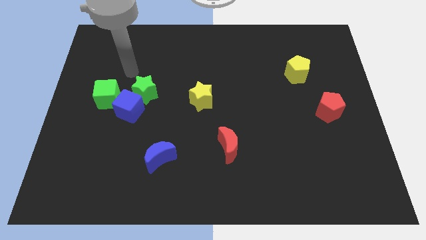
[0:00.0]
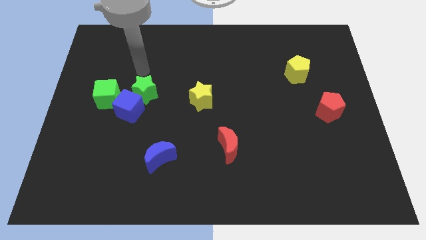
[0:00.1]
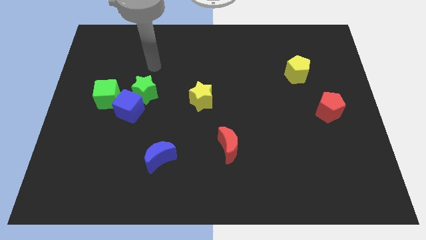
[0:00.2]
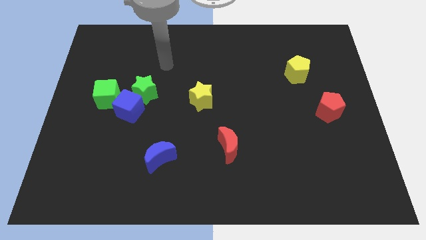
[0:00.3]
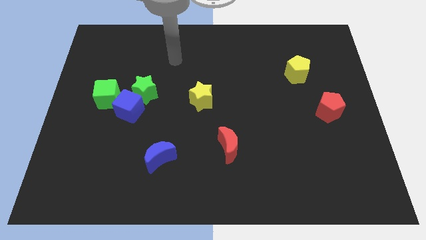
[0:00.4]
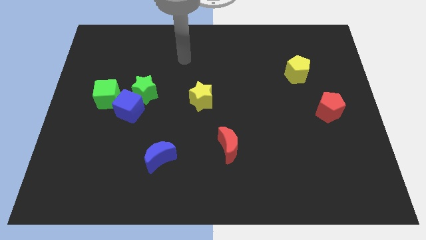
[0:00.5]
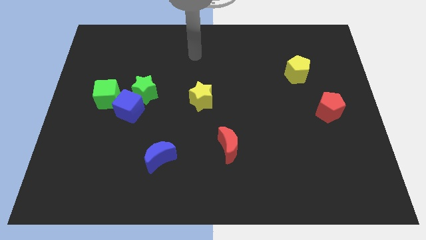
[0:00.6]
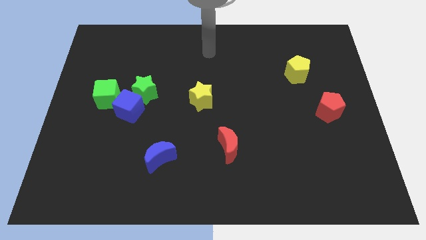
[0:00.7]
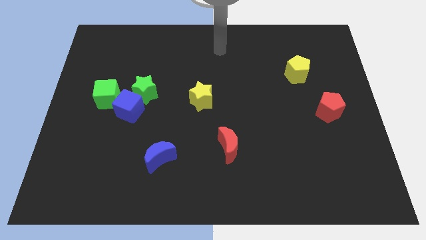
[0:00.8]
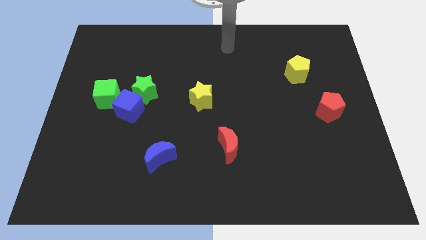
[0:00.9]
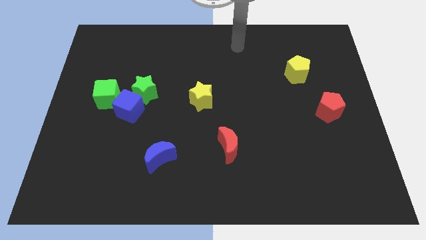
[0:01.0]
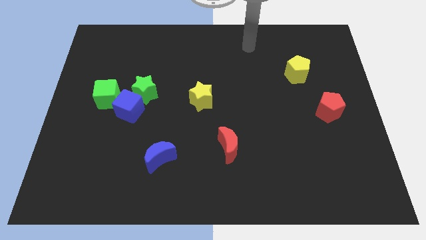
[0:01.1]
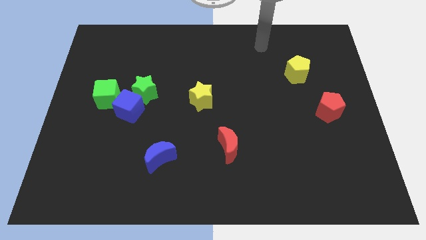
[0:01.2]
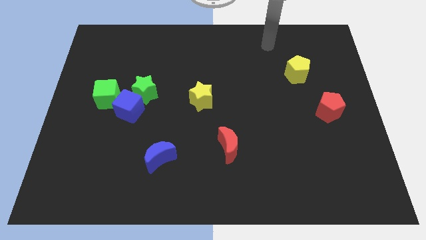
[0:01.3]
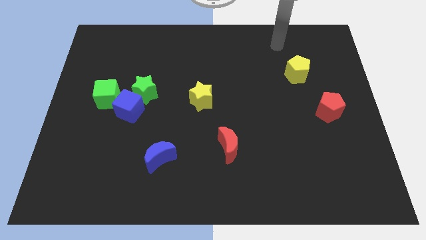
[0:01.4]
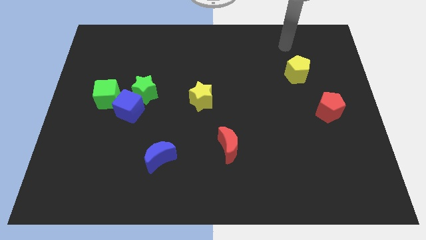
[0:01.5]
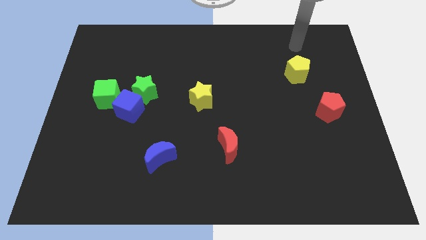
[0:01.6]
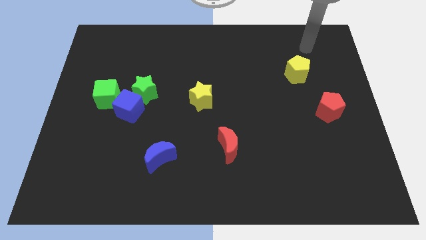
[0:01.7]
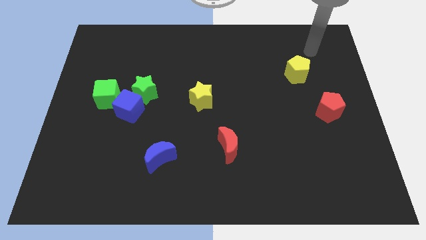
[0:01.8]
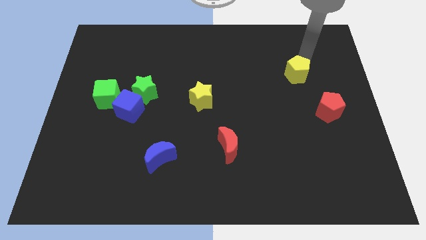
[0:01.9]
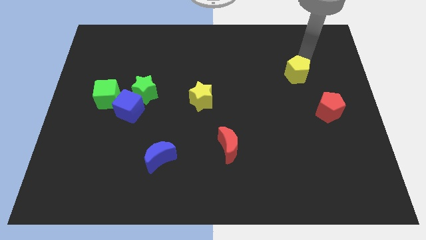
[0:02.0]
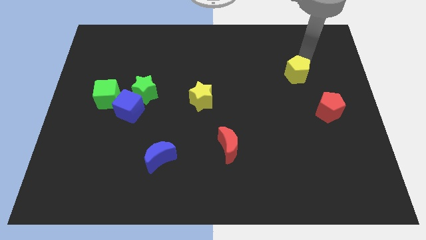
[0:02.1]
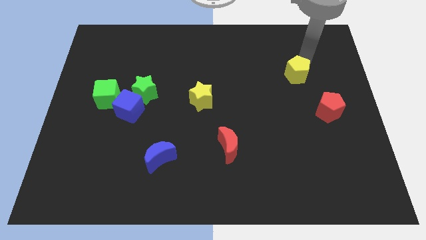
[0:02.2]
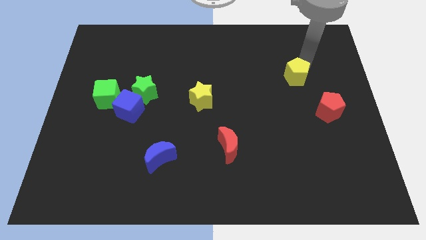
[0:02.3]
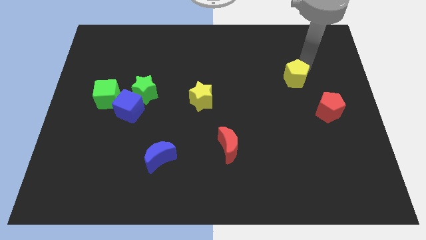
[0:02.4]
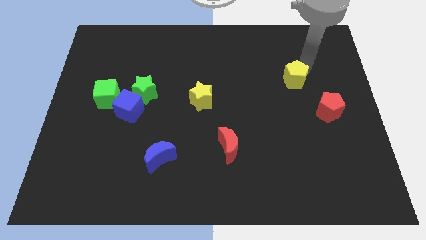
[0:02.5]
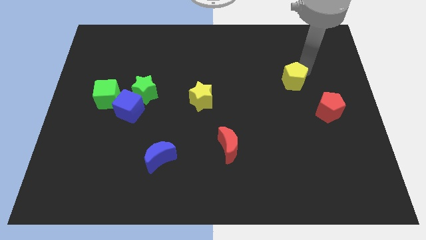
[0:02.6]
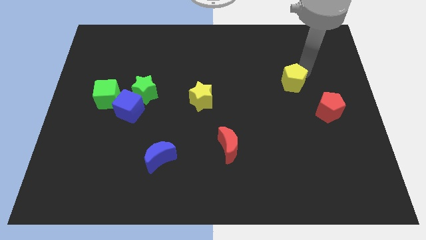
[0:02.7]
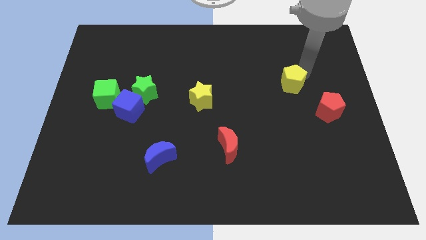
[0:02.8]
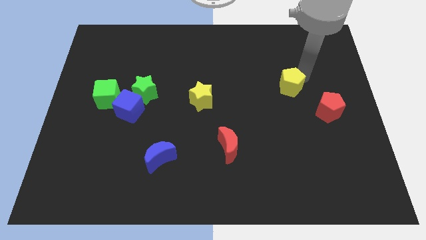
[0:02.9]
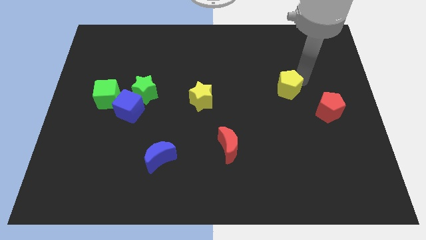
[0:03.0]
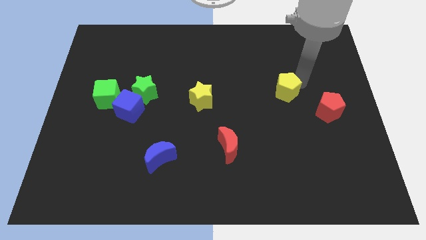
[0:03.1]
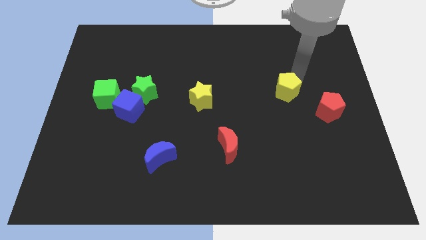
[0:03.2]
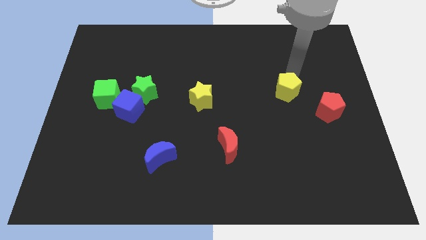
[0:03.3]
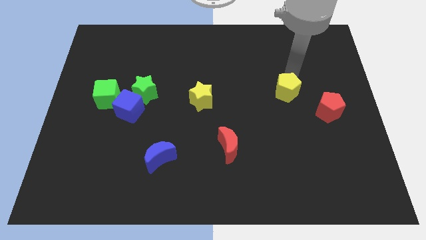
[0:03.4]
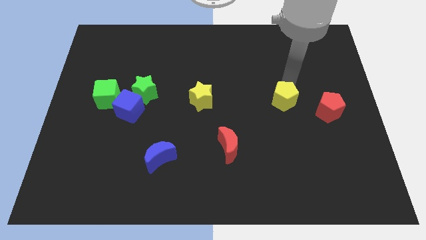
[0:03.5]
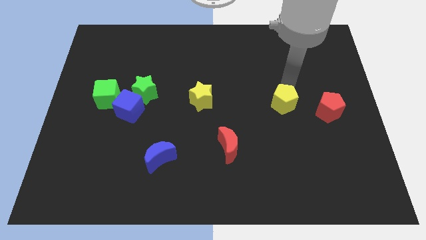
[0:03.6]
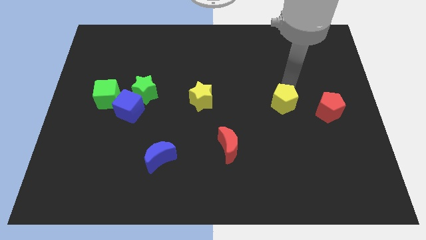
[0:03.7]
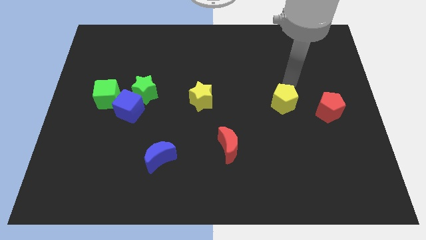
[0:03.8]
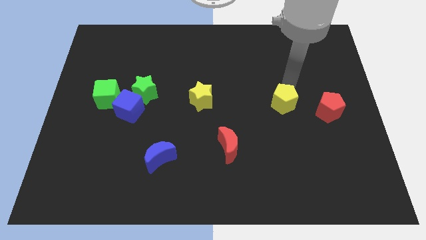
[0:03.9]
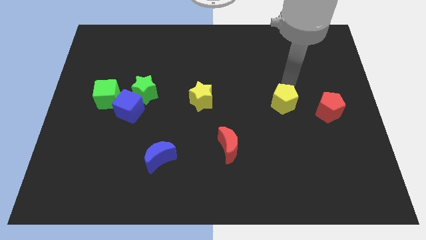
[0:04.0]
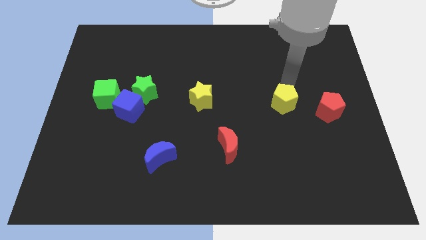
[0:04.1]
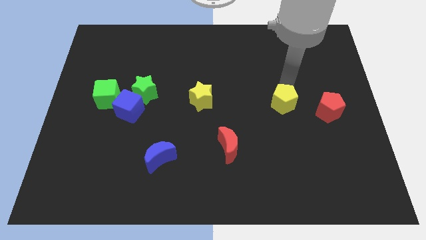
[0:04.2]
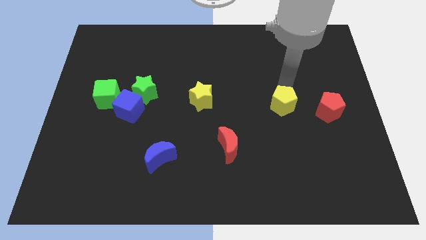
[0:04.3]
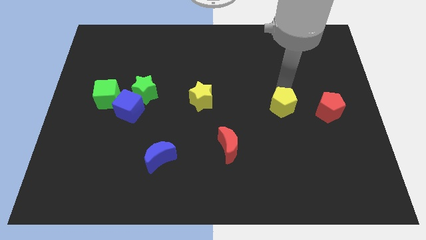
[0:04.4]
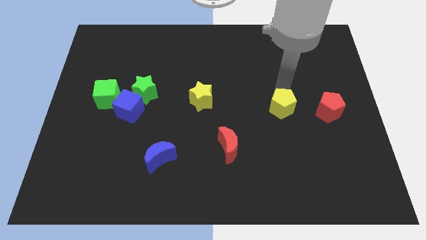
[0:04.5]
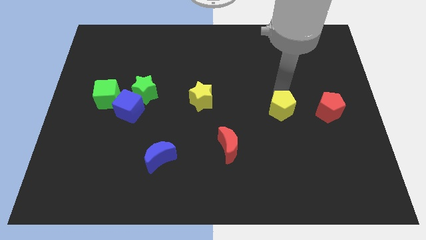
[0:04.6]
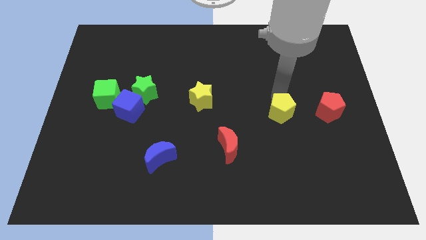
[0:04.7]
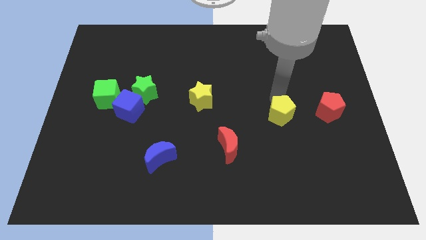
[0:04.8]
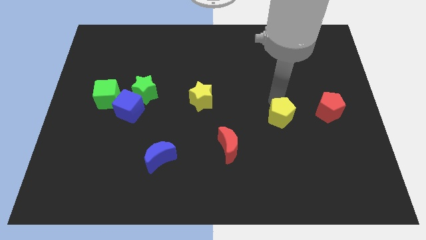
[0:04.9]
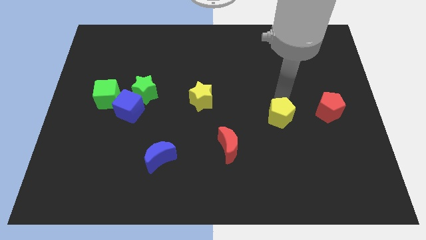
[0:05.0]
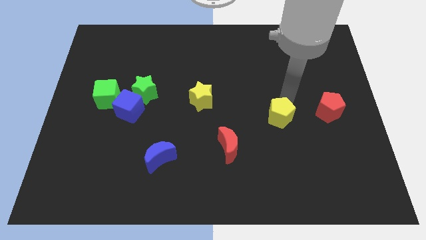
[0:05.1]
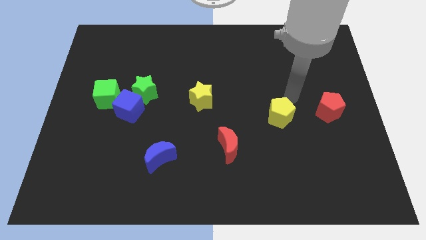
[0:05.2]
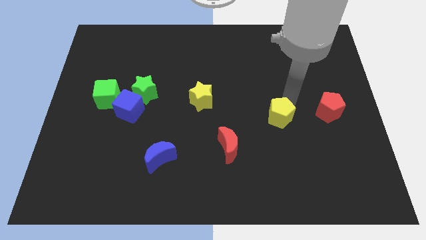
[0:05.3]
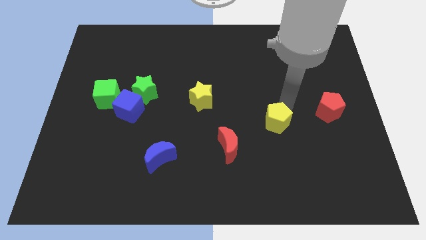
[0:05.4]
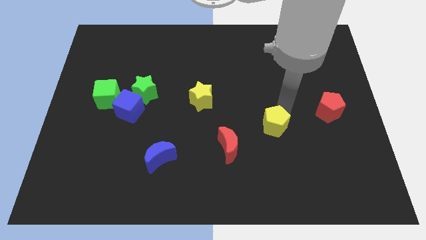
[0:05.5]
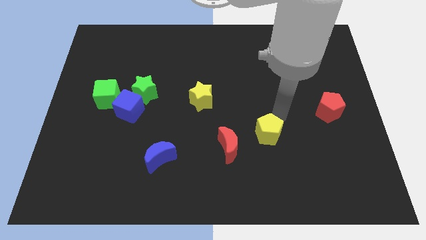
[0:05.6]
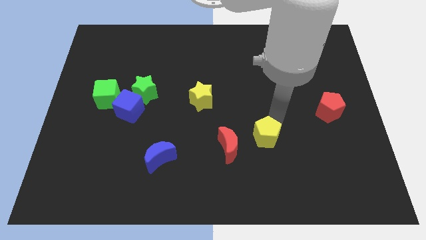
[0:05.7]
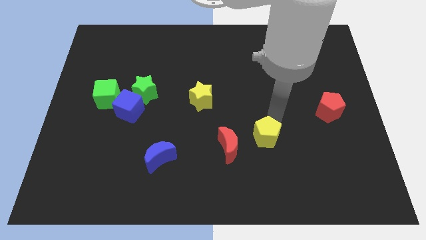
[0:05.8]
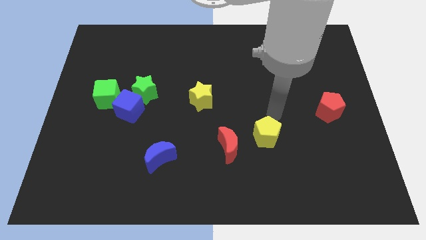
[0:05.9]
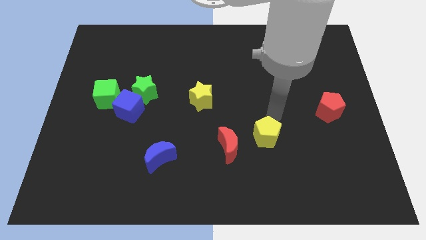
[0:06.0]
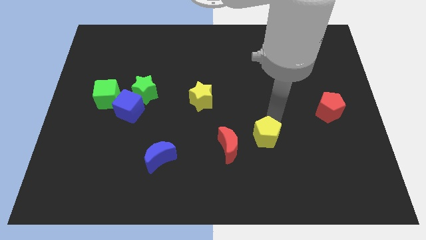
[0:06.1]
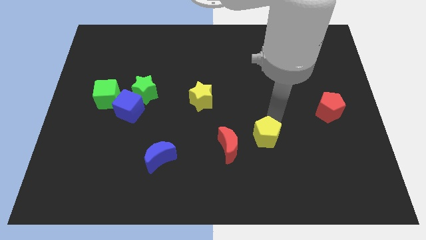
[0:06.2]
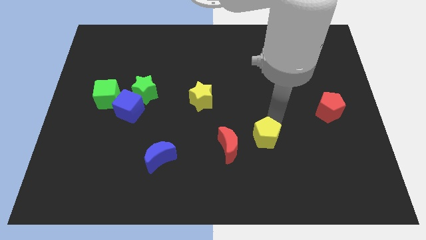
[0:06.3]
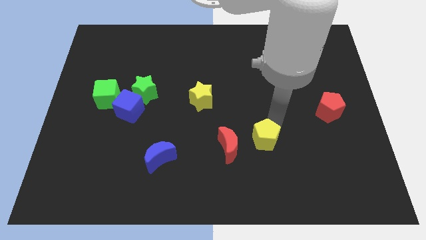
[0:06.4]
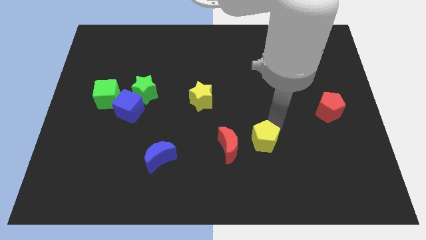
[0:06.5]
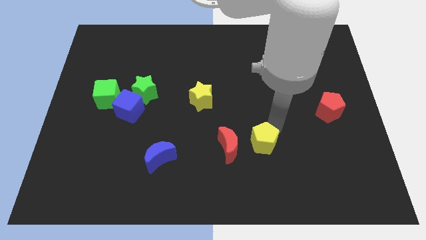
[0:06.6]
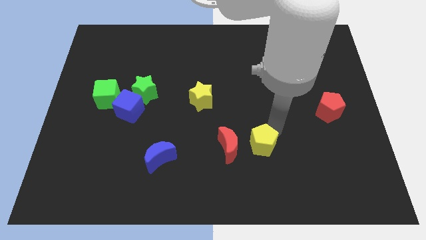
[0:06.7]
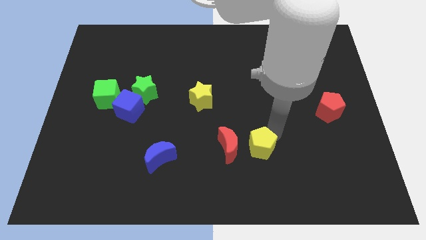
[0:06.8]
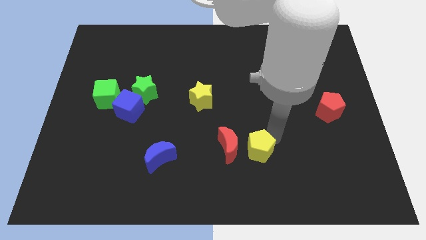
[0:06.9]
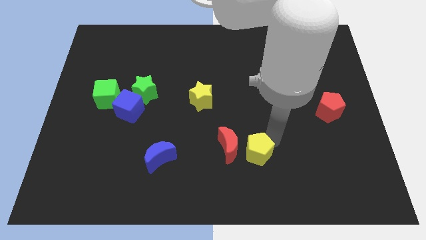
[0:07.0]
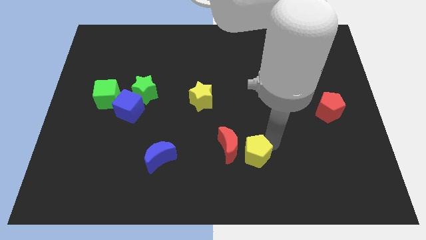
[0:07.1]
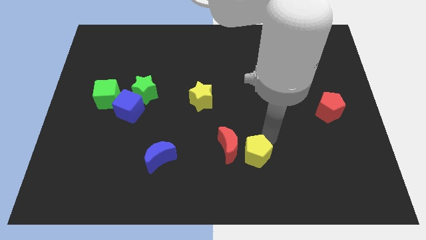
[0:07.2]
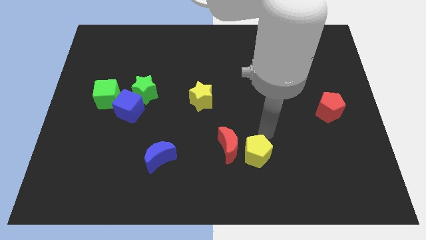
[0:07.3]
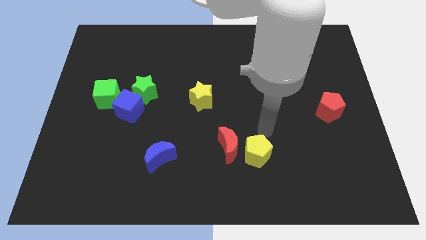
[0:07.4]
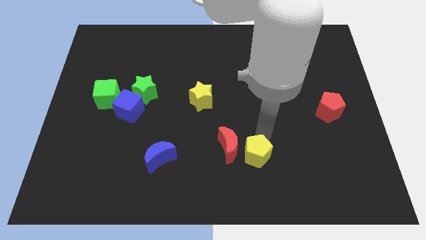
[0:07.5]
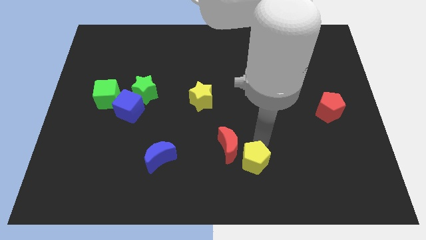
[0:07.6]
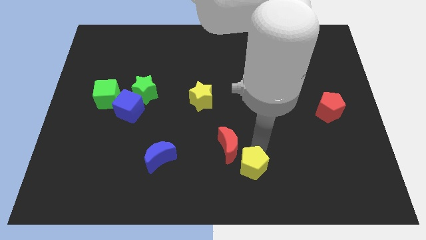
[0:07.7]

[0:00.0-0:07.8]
slide the yellow pentagon to the bottom side
